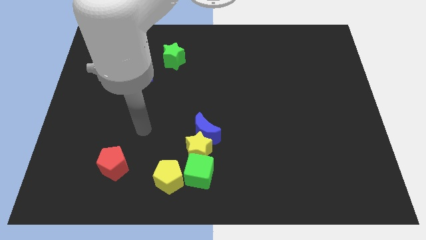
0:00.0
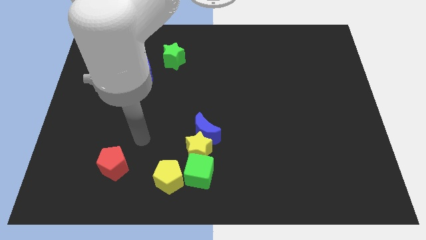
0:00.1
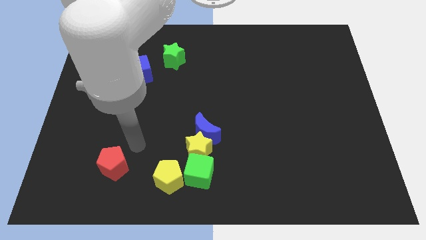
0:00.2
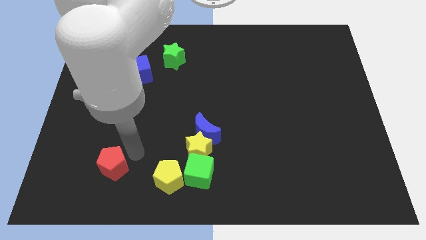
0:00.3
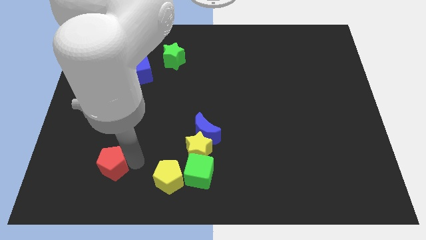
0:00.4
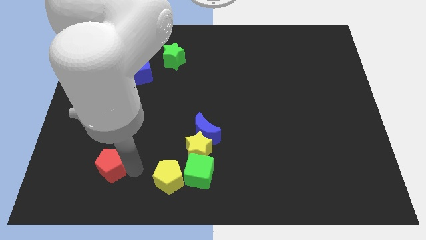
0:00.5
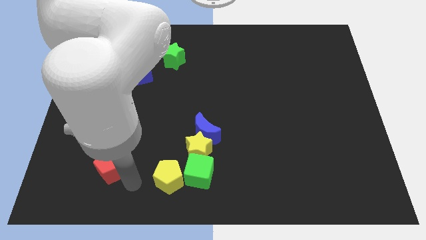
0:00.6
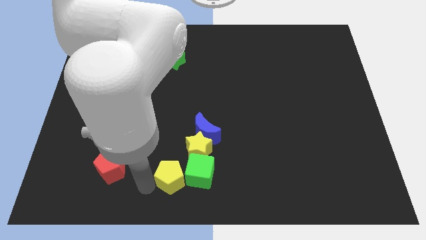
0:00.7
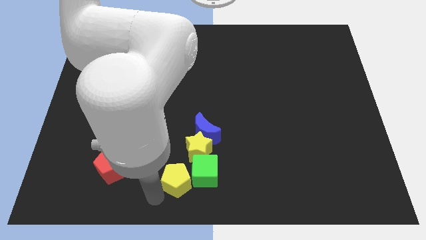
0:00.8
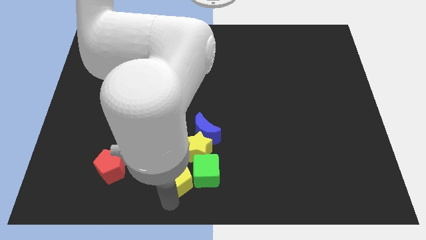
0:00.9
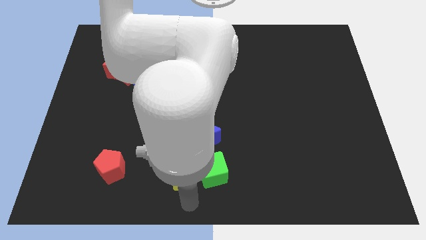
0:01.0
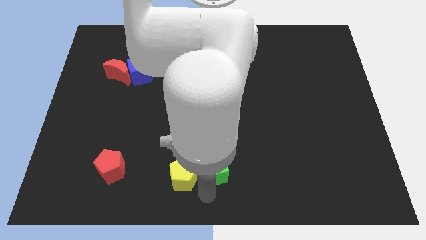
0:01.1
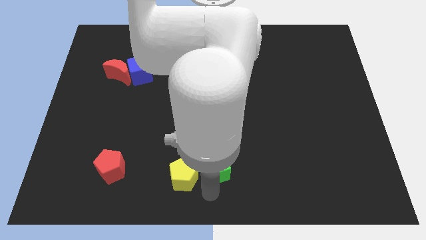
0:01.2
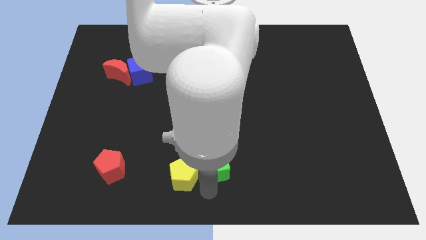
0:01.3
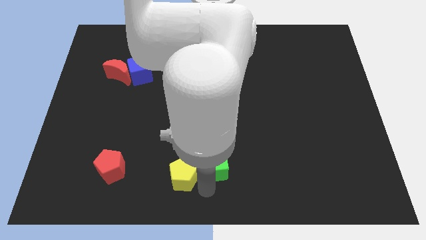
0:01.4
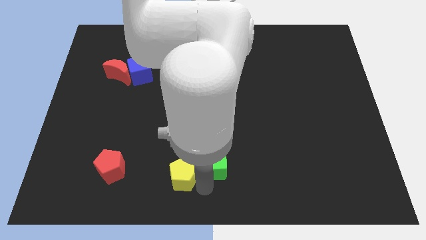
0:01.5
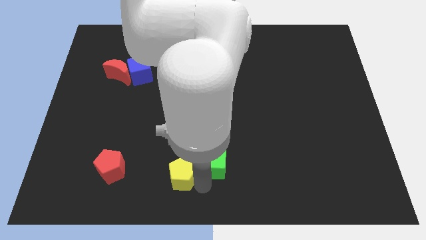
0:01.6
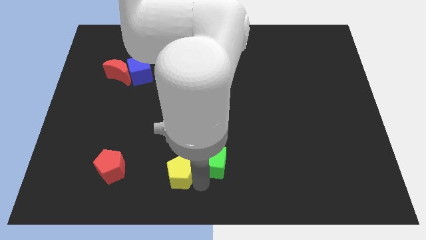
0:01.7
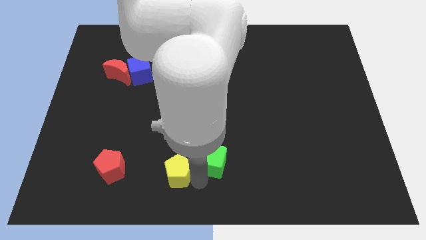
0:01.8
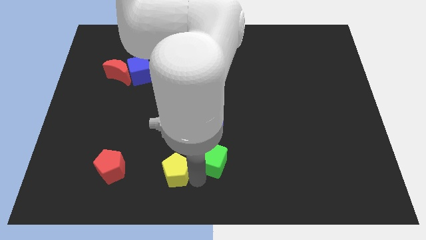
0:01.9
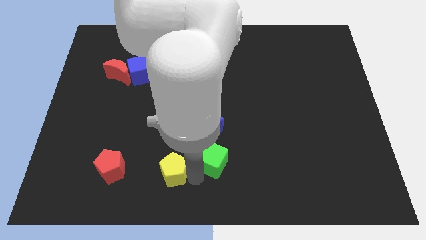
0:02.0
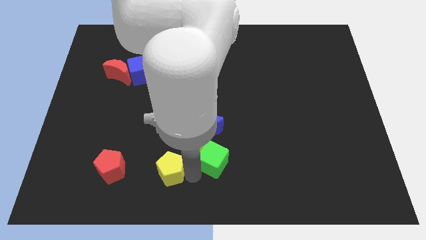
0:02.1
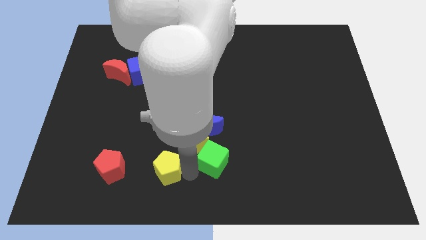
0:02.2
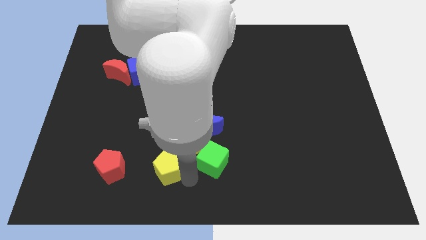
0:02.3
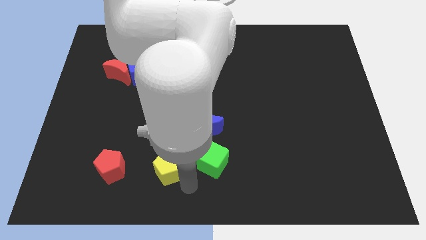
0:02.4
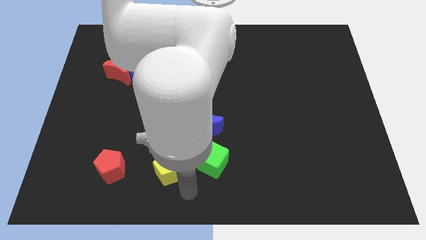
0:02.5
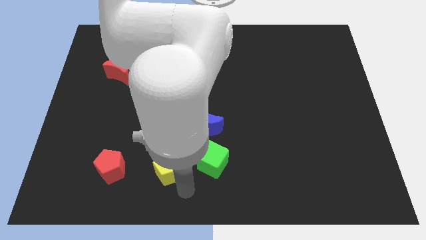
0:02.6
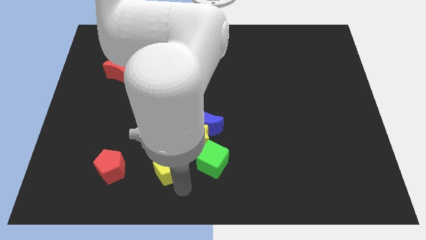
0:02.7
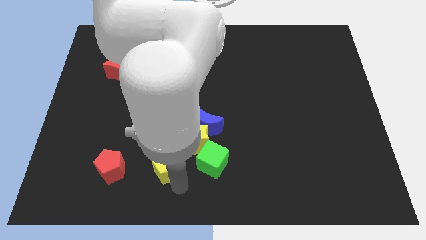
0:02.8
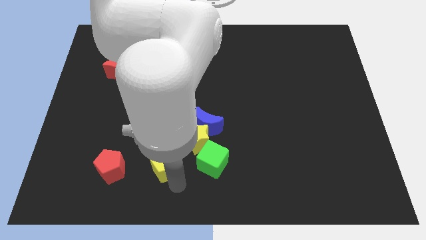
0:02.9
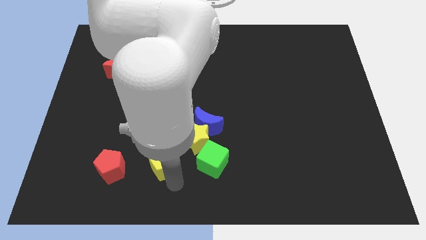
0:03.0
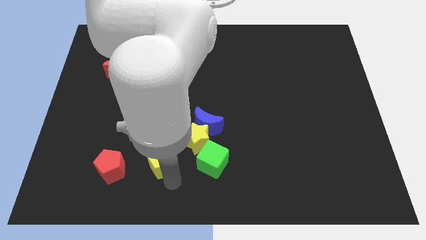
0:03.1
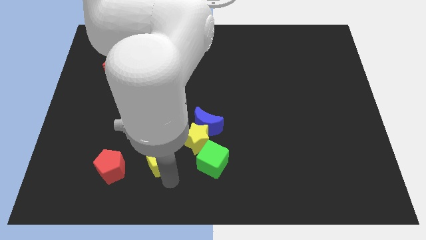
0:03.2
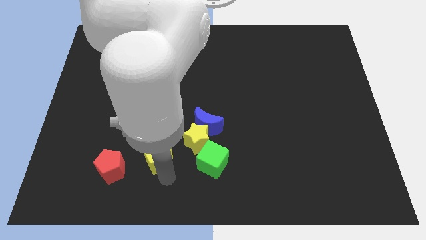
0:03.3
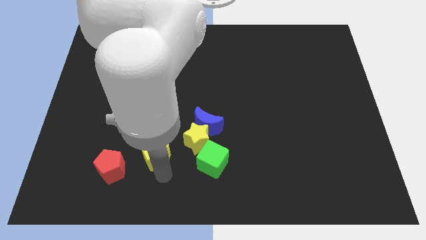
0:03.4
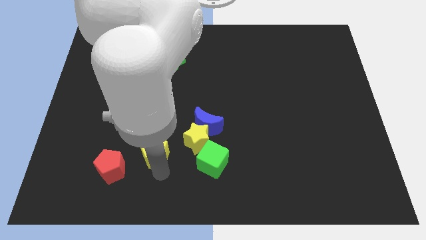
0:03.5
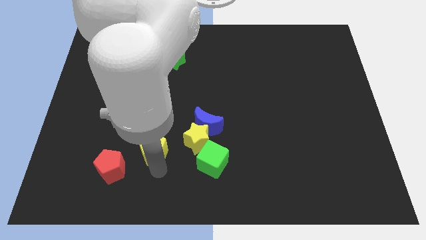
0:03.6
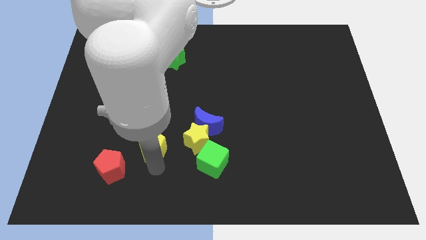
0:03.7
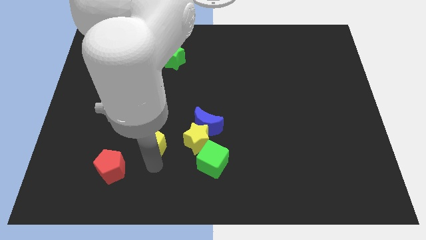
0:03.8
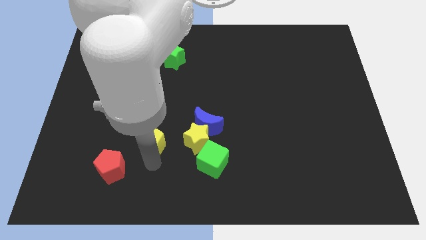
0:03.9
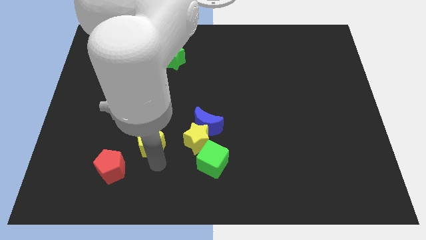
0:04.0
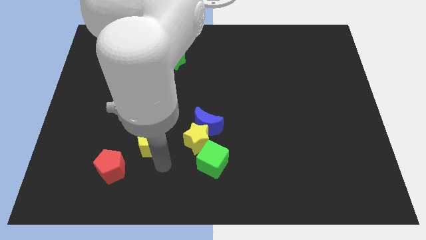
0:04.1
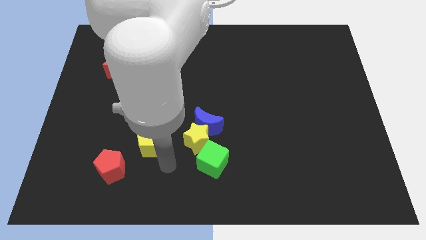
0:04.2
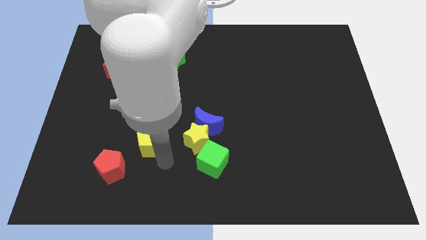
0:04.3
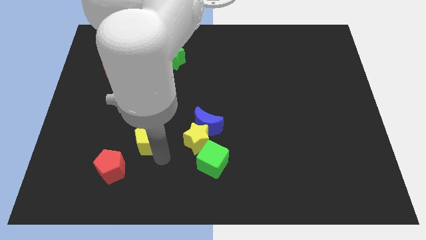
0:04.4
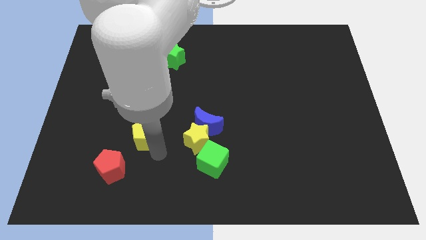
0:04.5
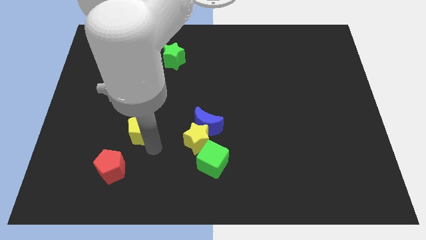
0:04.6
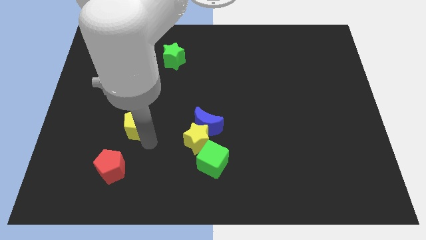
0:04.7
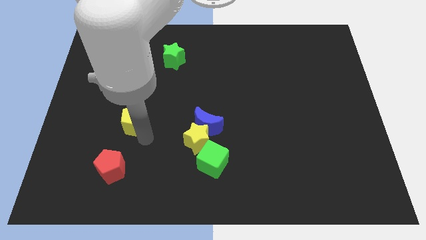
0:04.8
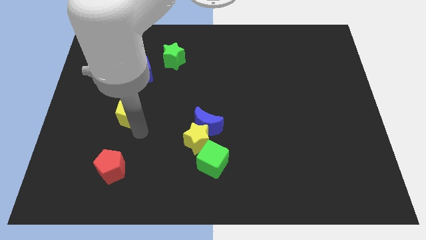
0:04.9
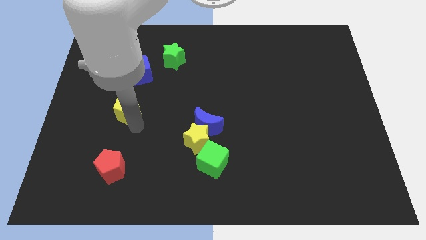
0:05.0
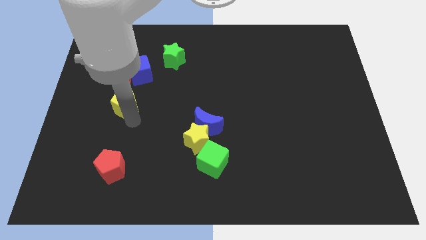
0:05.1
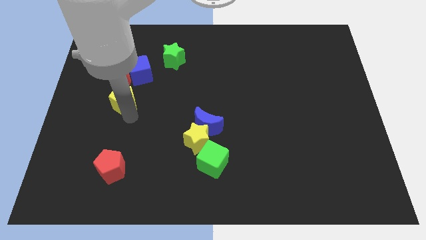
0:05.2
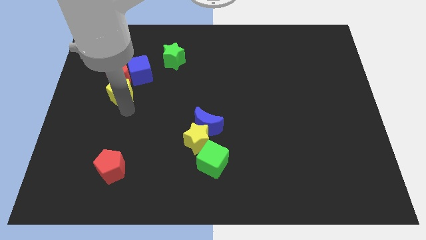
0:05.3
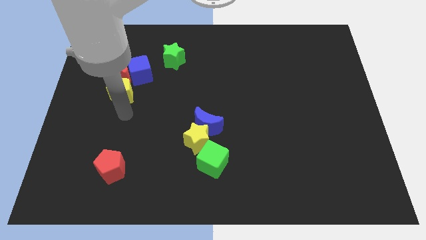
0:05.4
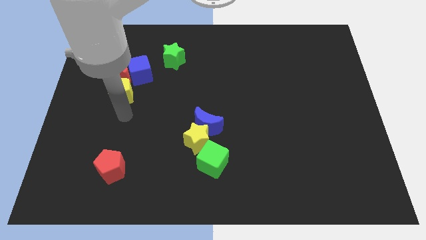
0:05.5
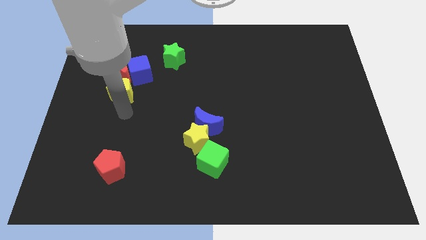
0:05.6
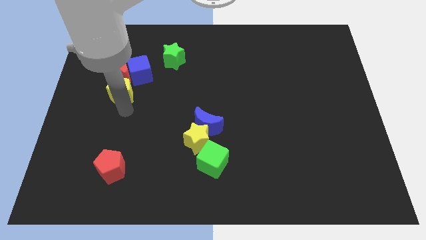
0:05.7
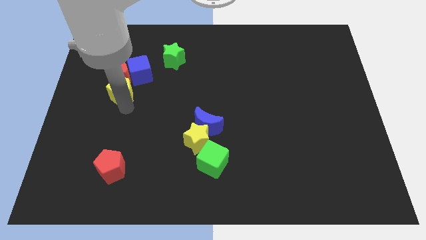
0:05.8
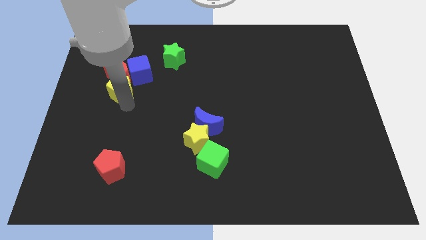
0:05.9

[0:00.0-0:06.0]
slide the yellow pentagon towards the red moon

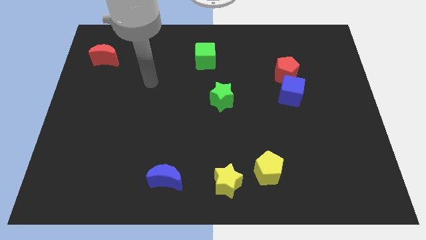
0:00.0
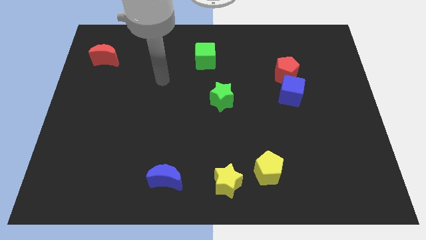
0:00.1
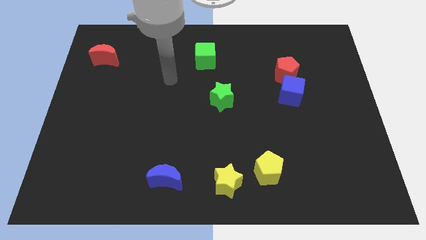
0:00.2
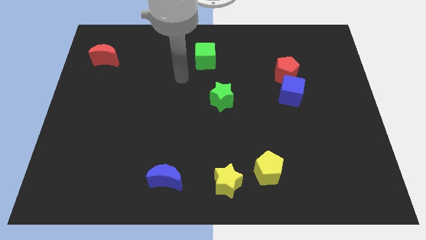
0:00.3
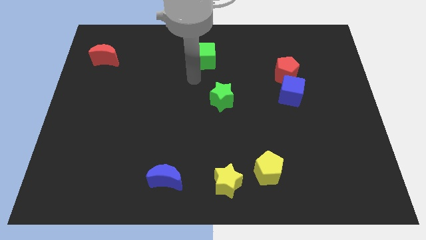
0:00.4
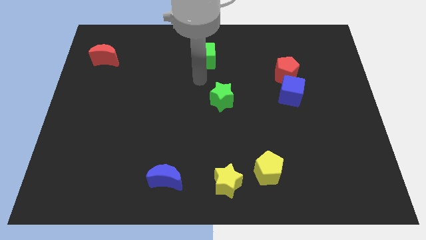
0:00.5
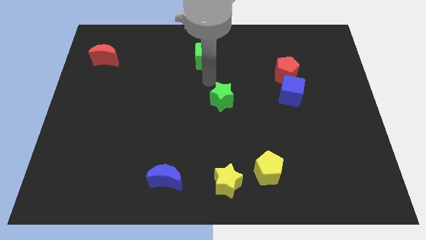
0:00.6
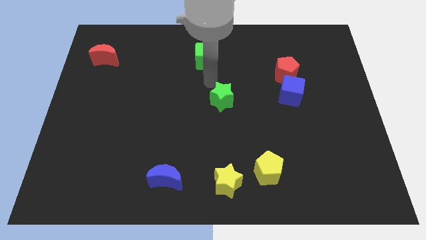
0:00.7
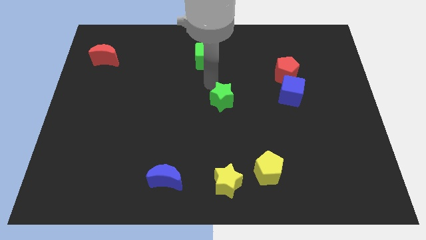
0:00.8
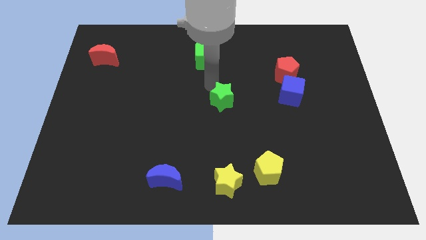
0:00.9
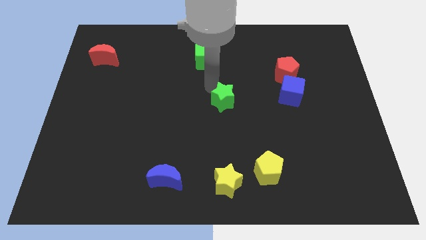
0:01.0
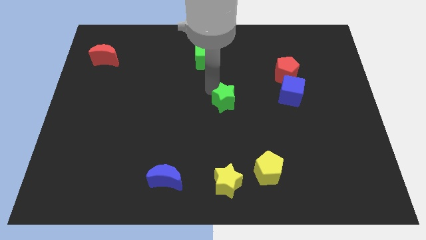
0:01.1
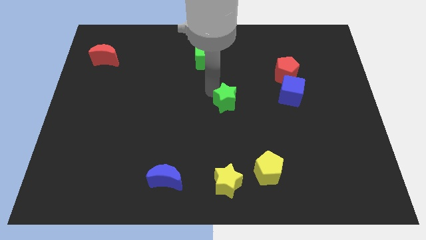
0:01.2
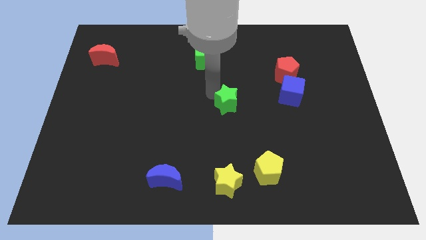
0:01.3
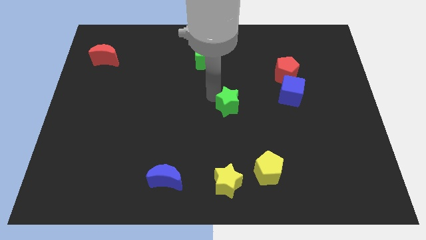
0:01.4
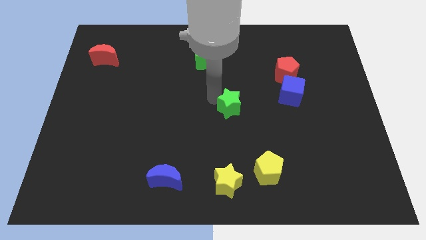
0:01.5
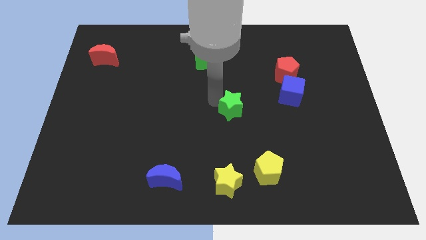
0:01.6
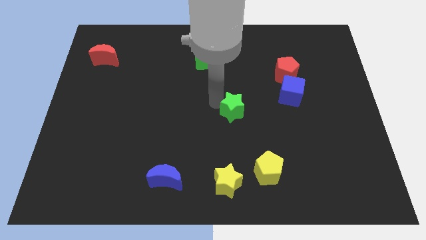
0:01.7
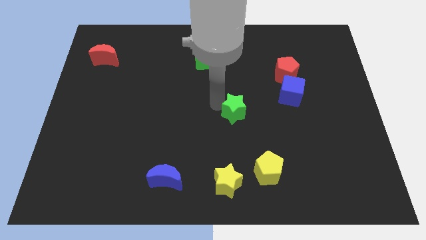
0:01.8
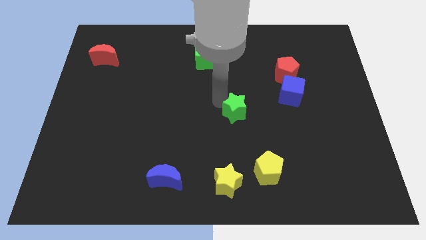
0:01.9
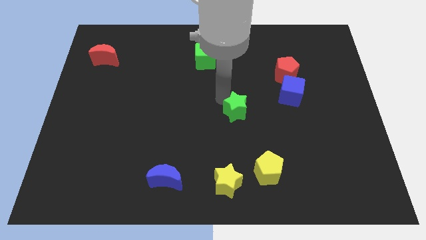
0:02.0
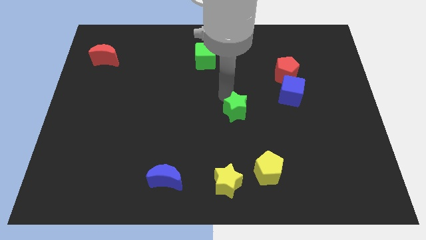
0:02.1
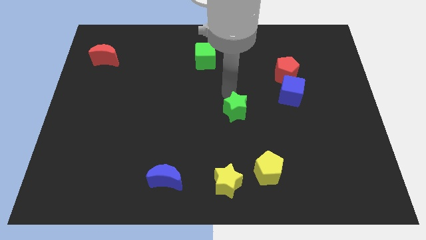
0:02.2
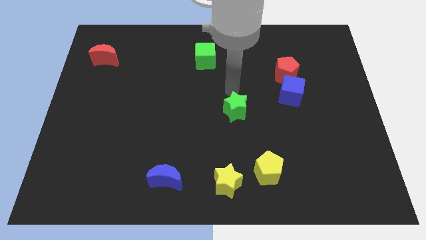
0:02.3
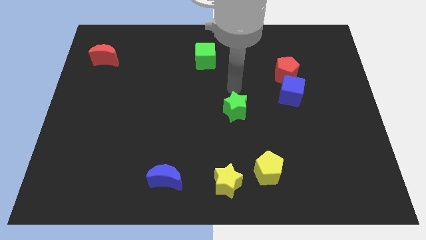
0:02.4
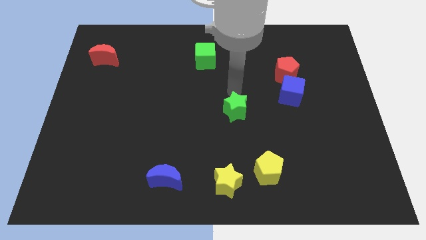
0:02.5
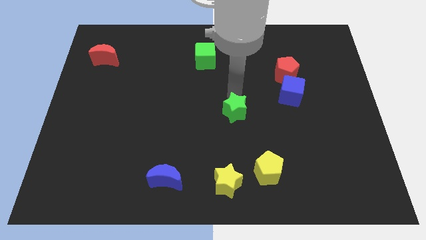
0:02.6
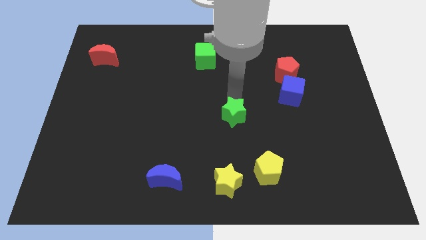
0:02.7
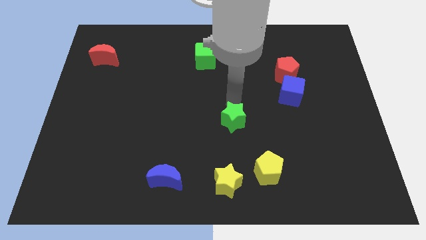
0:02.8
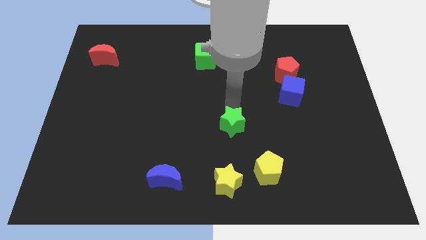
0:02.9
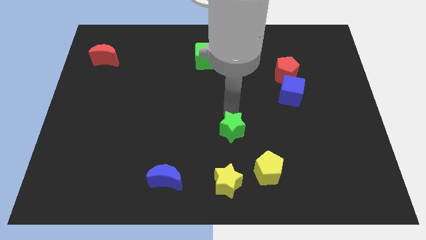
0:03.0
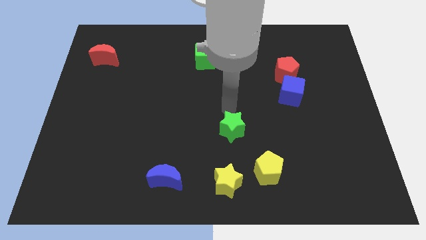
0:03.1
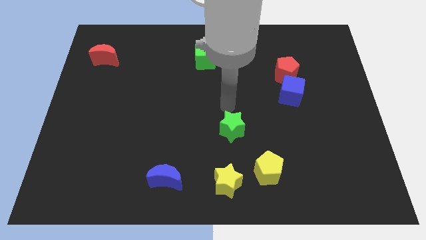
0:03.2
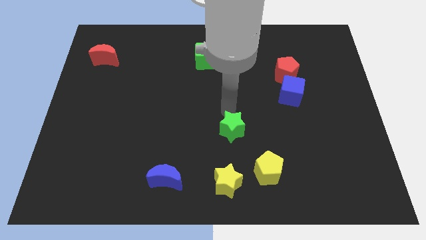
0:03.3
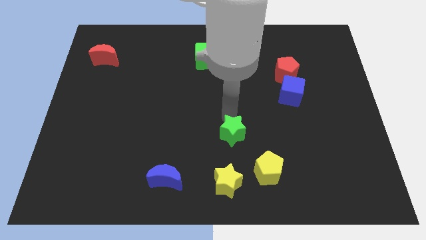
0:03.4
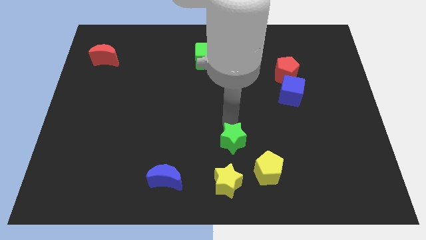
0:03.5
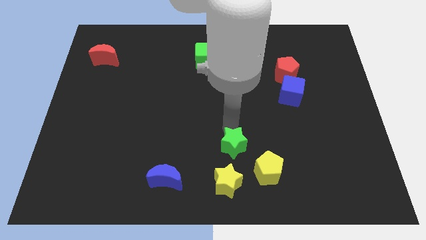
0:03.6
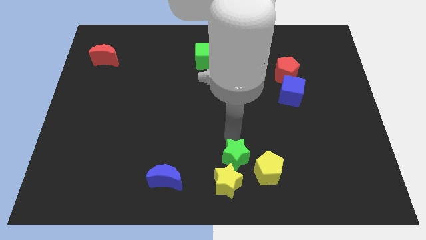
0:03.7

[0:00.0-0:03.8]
move the green star towards the yellow star
